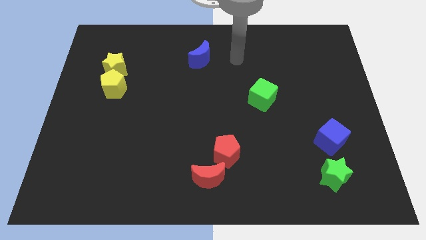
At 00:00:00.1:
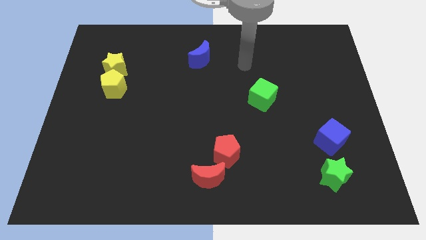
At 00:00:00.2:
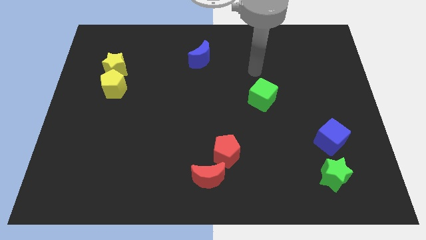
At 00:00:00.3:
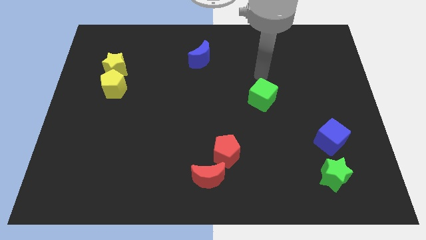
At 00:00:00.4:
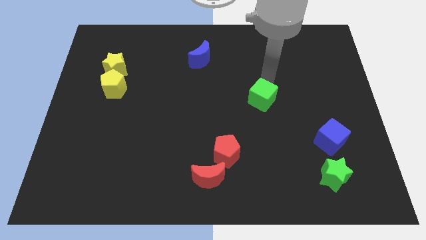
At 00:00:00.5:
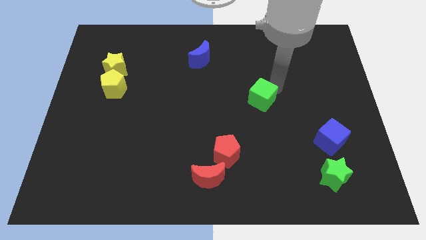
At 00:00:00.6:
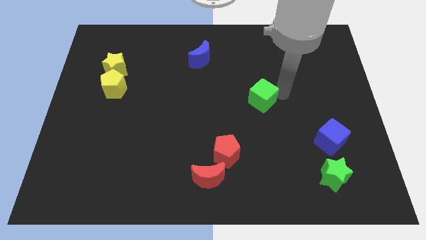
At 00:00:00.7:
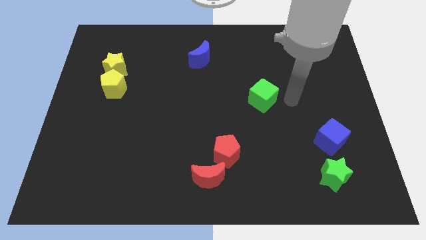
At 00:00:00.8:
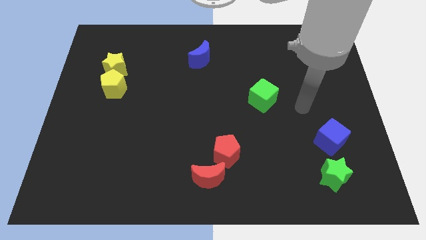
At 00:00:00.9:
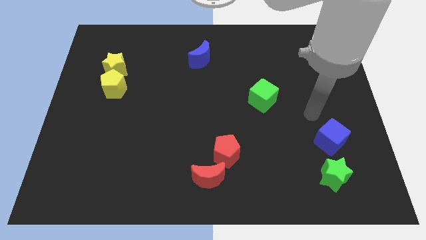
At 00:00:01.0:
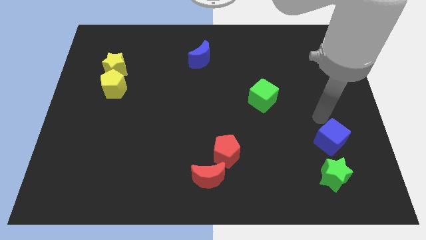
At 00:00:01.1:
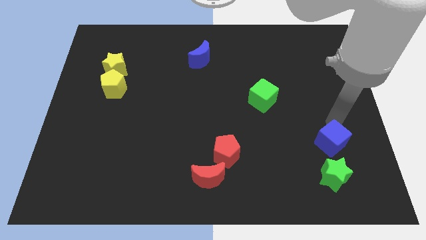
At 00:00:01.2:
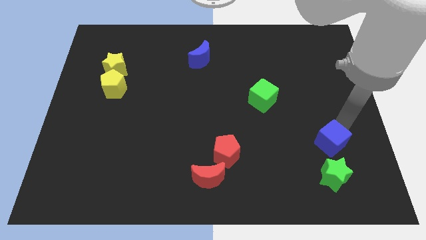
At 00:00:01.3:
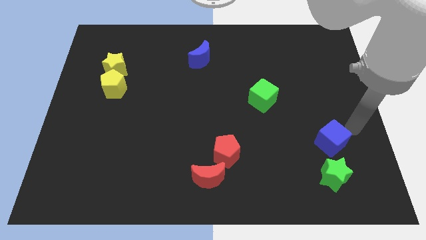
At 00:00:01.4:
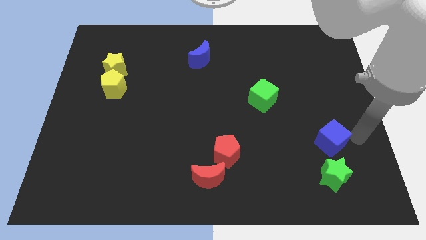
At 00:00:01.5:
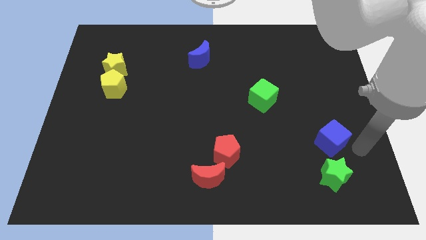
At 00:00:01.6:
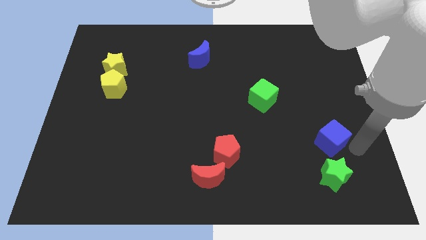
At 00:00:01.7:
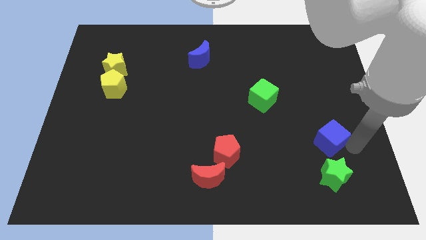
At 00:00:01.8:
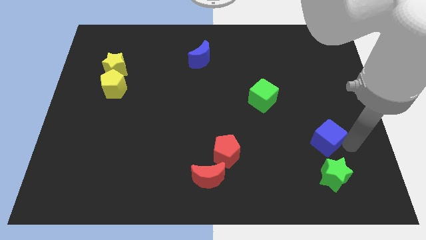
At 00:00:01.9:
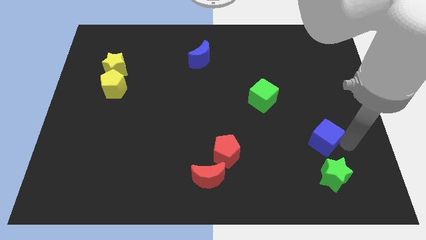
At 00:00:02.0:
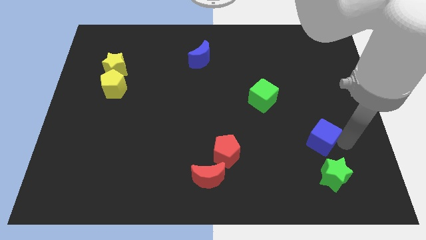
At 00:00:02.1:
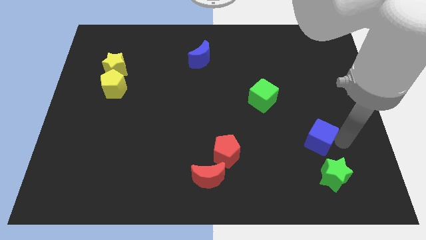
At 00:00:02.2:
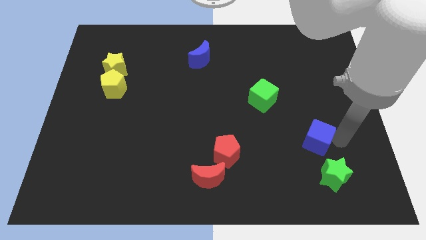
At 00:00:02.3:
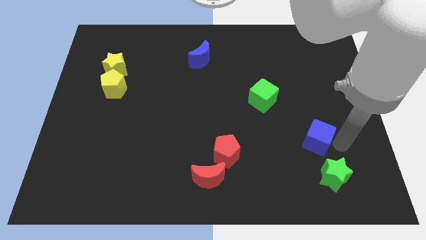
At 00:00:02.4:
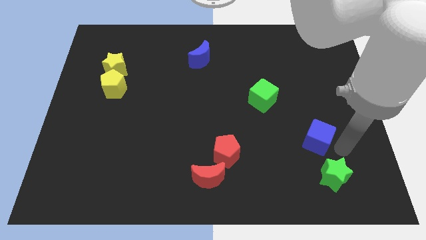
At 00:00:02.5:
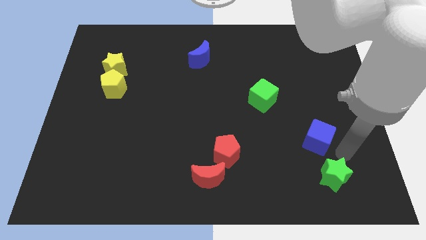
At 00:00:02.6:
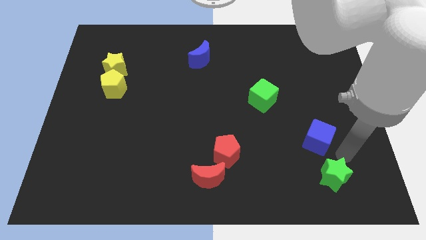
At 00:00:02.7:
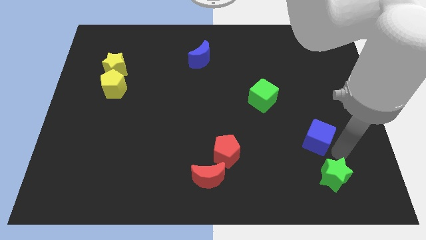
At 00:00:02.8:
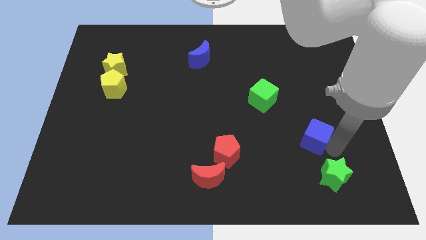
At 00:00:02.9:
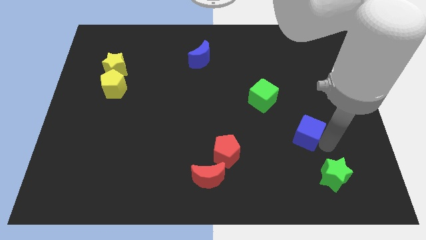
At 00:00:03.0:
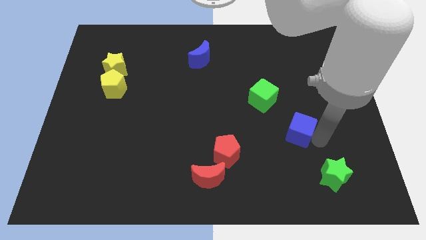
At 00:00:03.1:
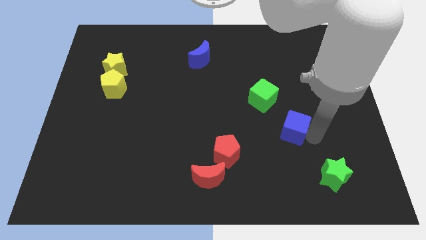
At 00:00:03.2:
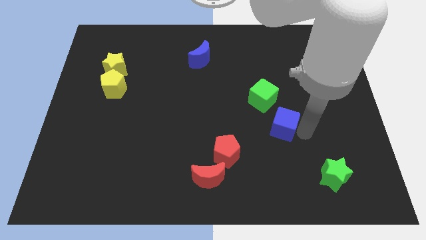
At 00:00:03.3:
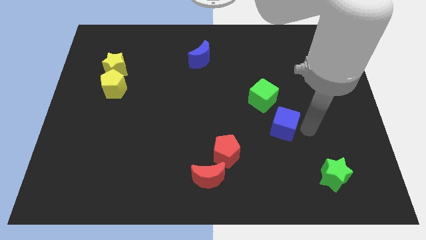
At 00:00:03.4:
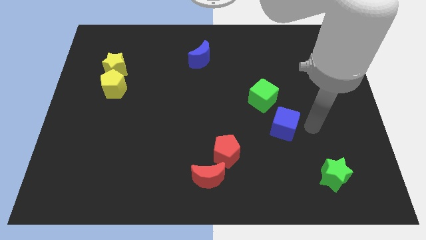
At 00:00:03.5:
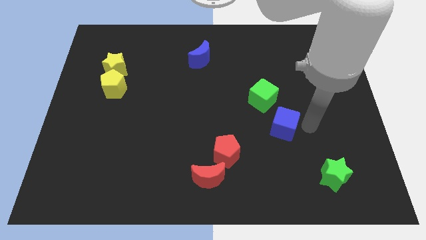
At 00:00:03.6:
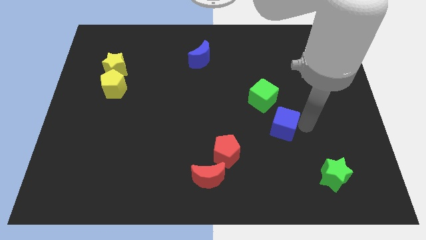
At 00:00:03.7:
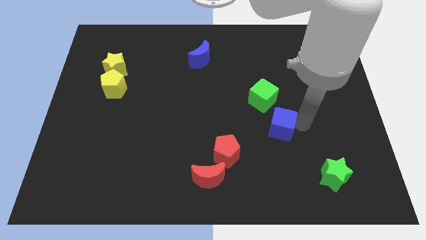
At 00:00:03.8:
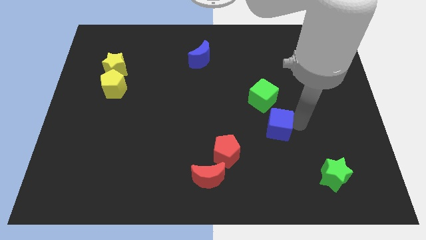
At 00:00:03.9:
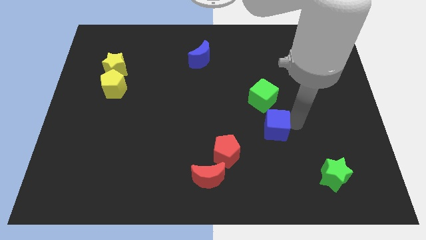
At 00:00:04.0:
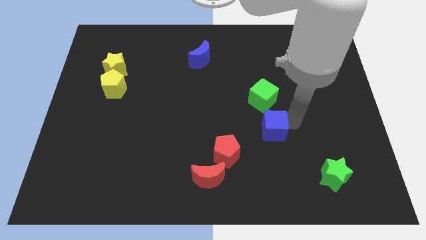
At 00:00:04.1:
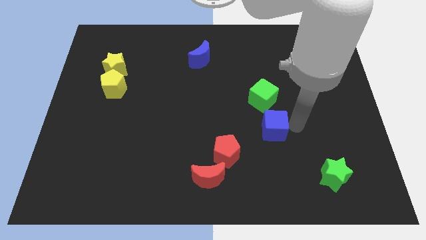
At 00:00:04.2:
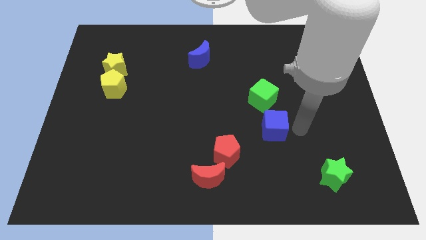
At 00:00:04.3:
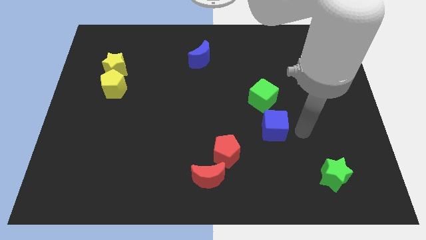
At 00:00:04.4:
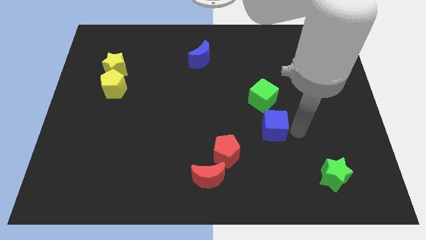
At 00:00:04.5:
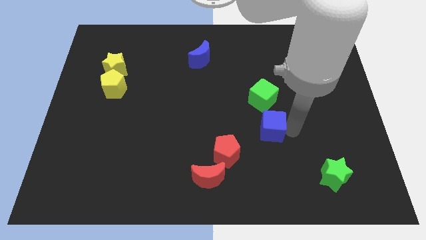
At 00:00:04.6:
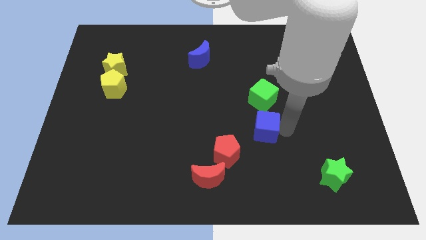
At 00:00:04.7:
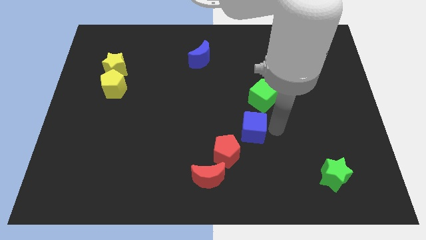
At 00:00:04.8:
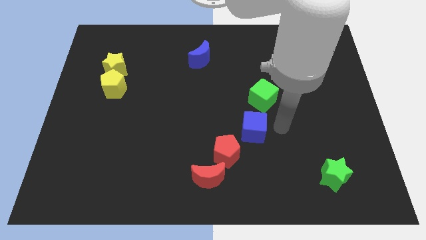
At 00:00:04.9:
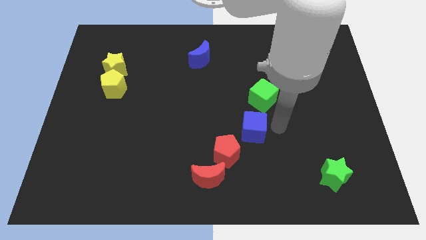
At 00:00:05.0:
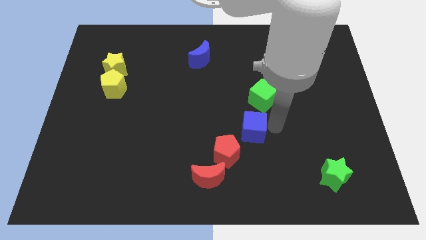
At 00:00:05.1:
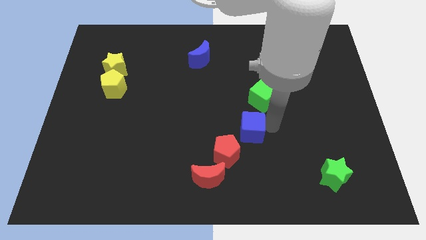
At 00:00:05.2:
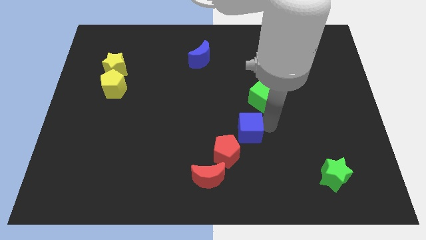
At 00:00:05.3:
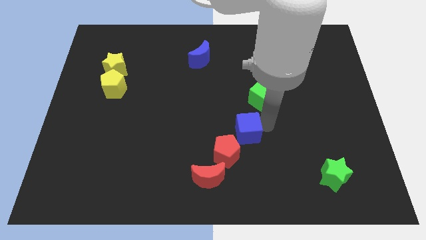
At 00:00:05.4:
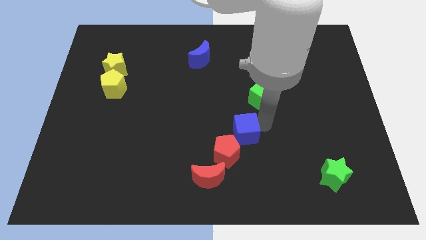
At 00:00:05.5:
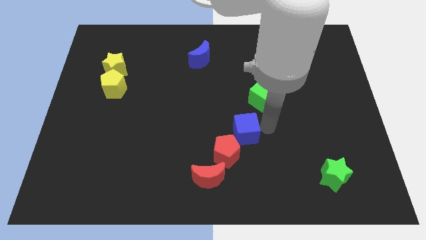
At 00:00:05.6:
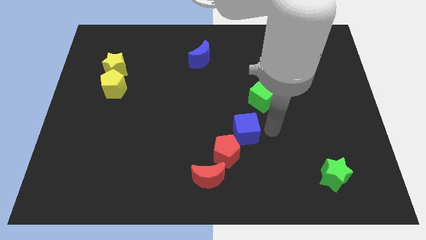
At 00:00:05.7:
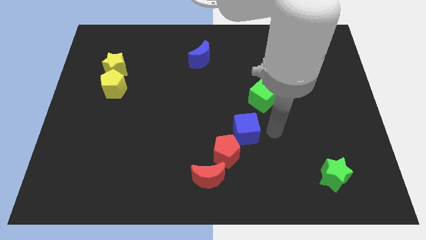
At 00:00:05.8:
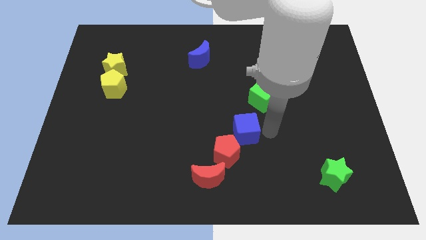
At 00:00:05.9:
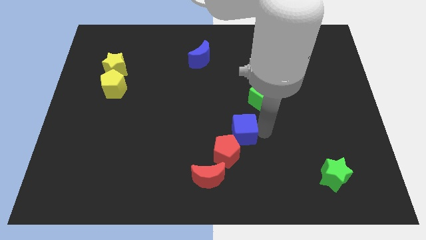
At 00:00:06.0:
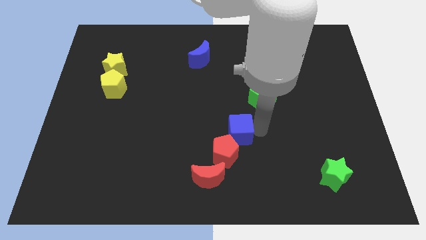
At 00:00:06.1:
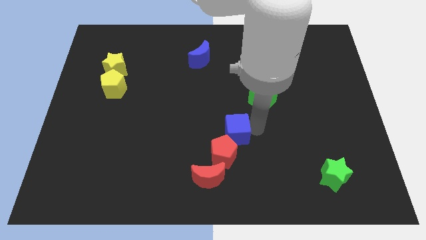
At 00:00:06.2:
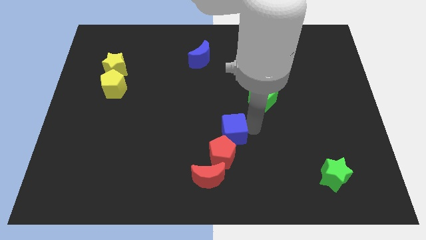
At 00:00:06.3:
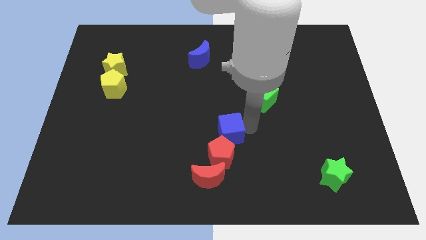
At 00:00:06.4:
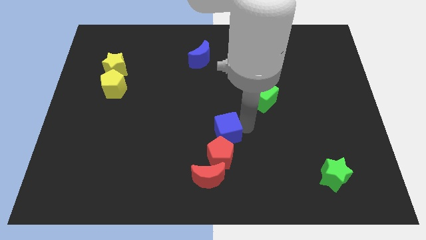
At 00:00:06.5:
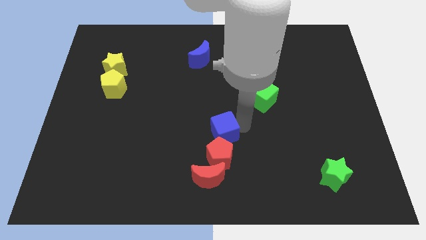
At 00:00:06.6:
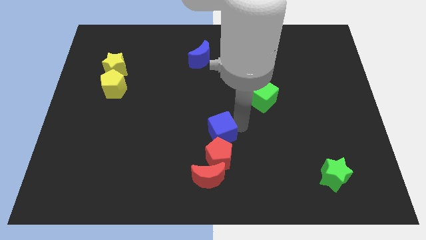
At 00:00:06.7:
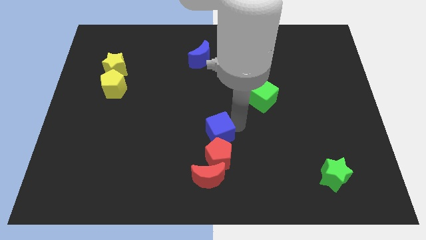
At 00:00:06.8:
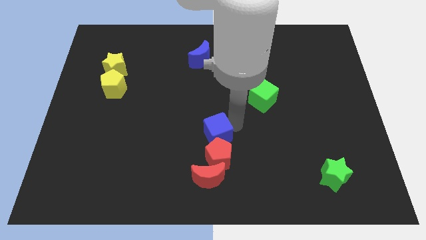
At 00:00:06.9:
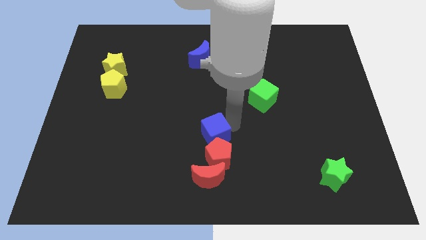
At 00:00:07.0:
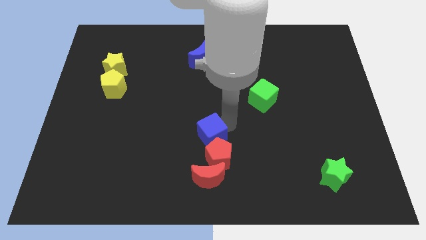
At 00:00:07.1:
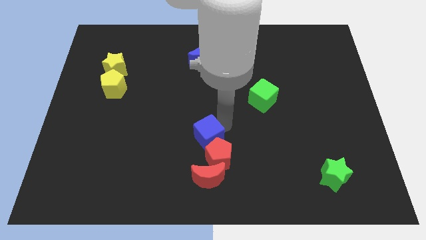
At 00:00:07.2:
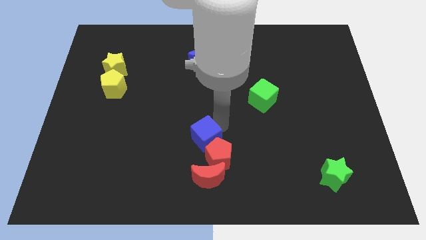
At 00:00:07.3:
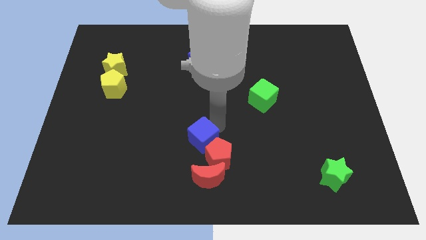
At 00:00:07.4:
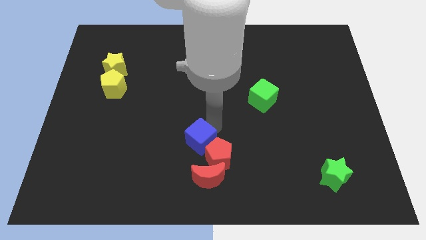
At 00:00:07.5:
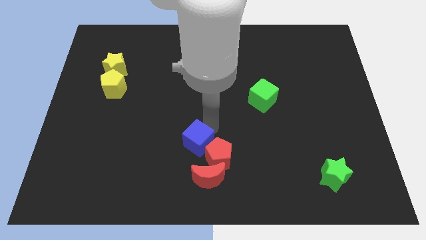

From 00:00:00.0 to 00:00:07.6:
slide the blue cube to the top left of the red moon
